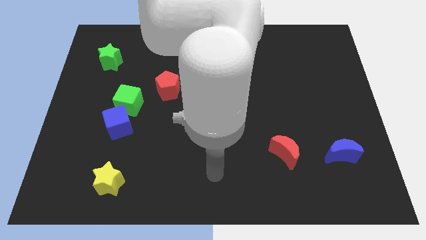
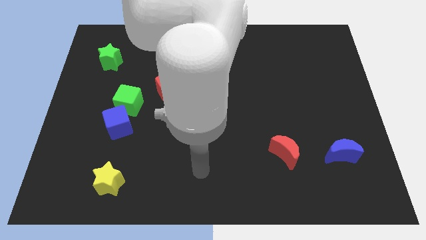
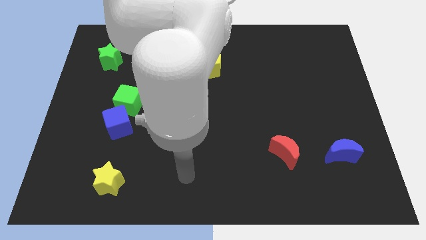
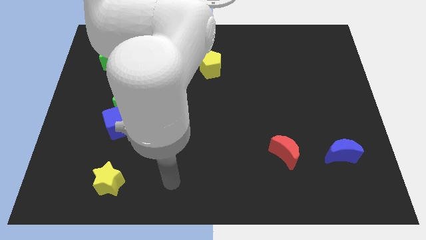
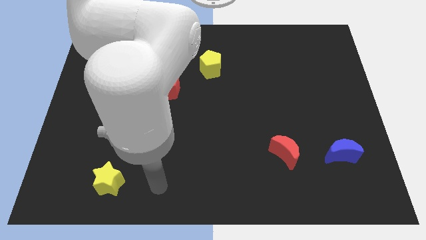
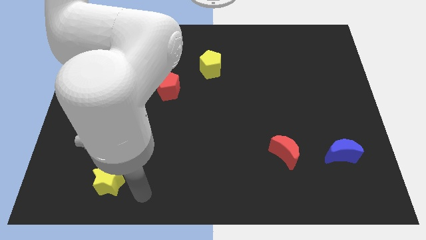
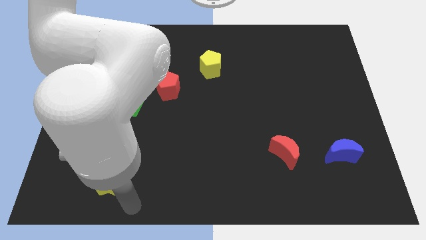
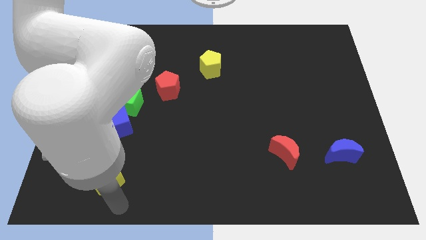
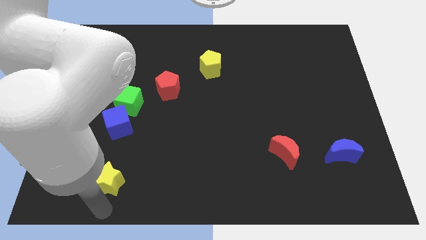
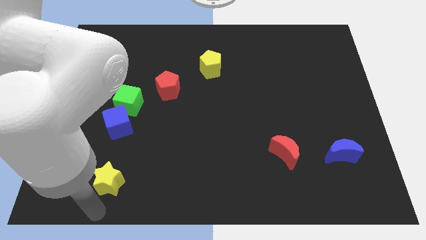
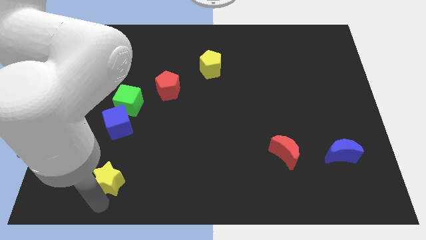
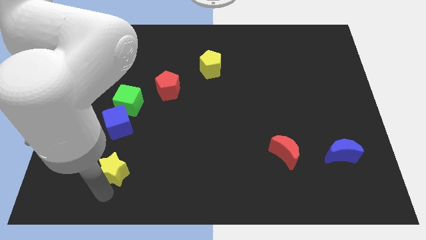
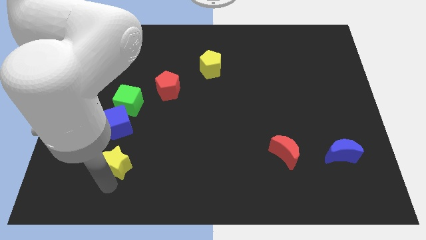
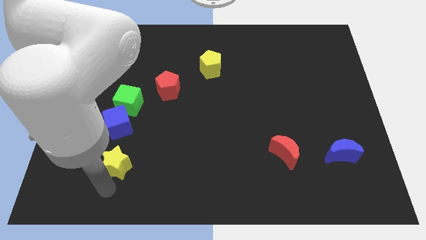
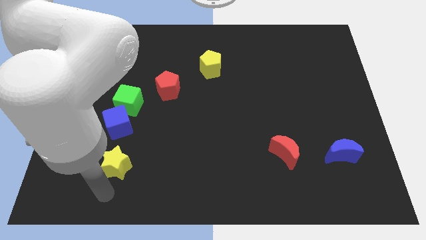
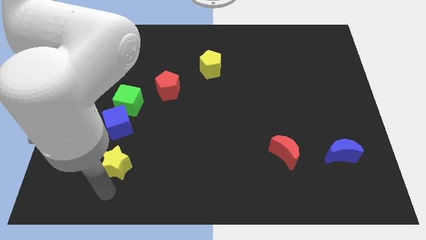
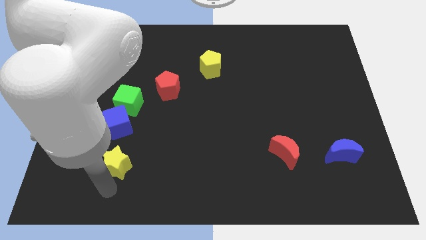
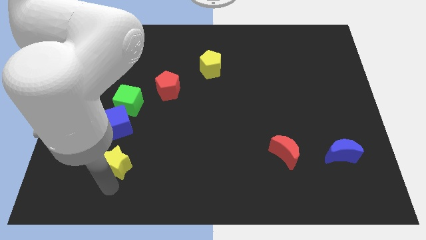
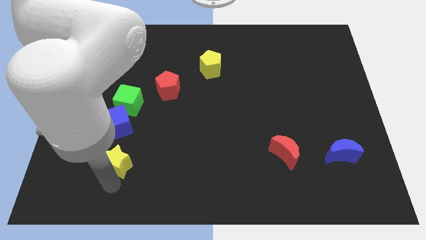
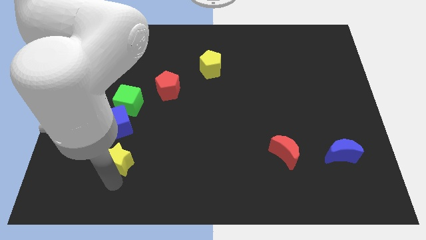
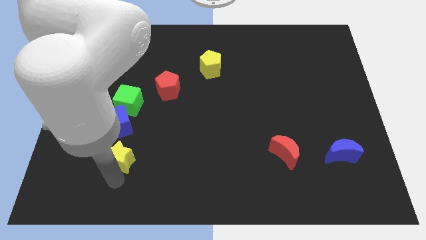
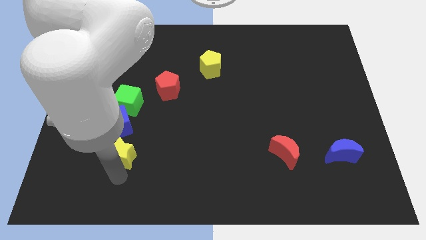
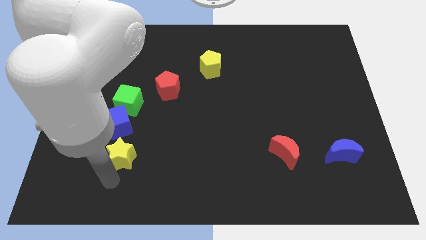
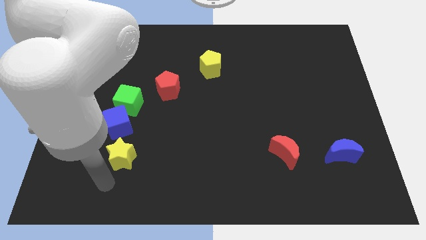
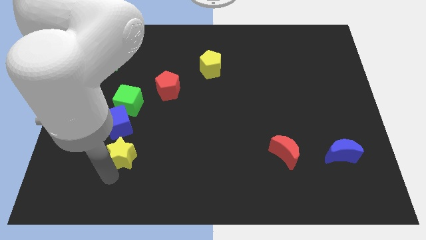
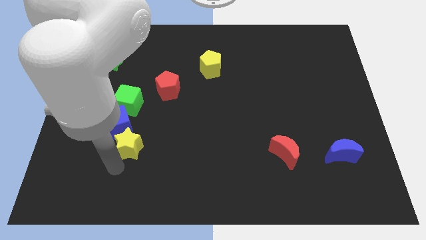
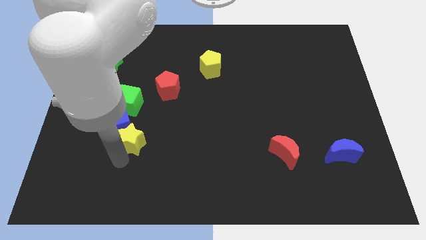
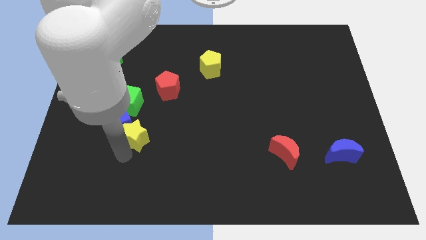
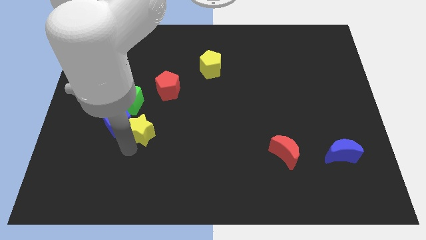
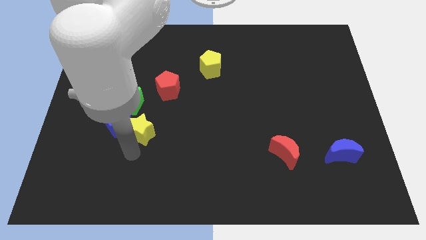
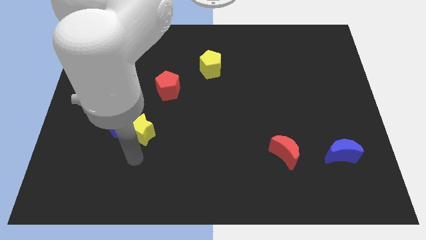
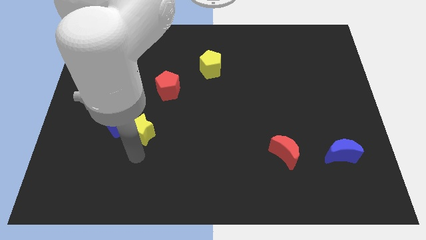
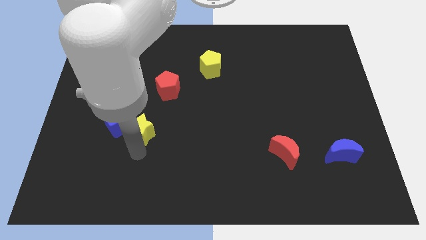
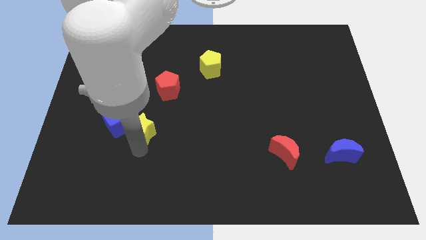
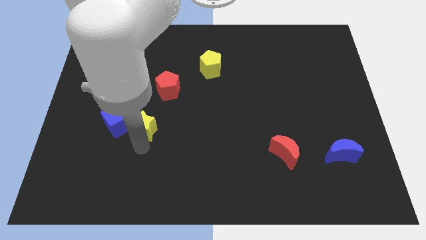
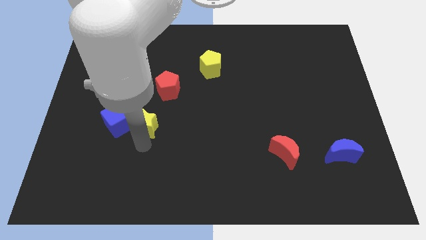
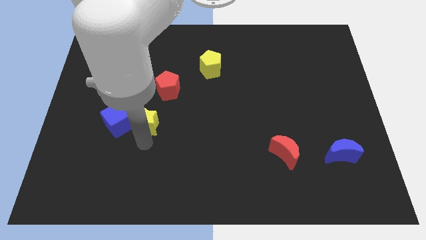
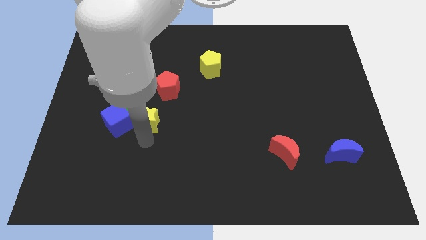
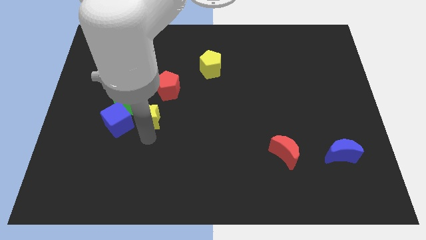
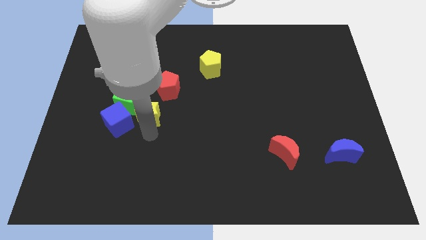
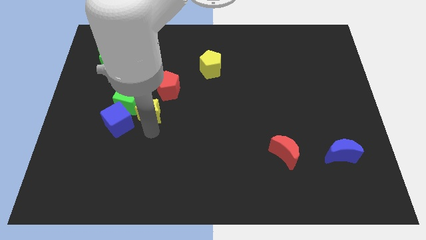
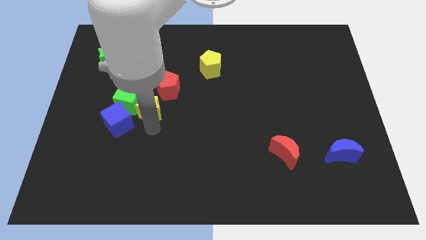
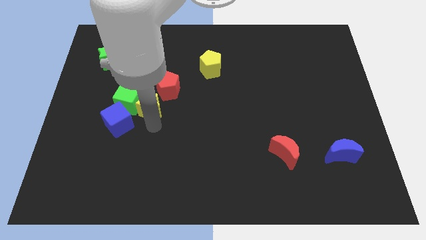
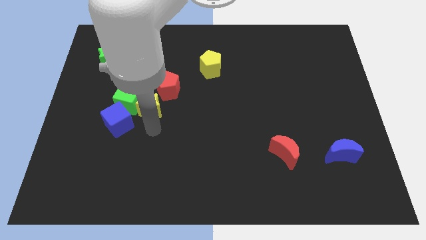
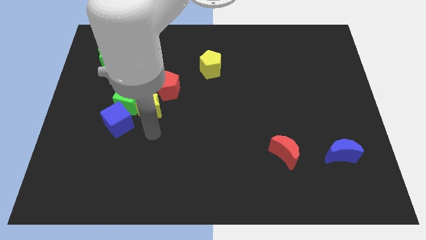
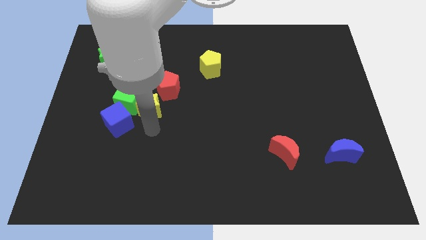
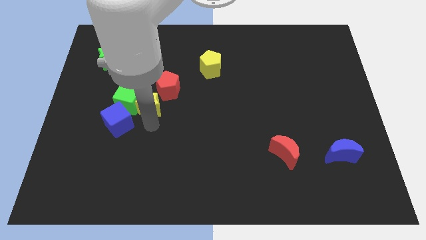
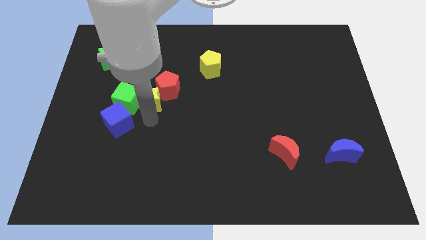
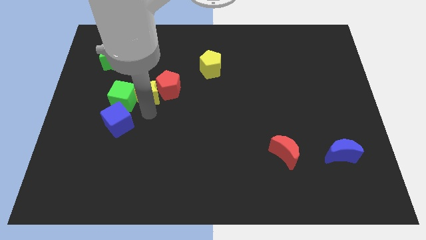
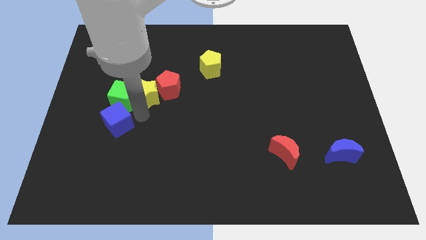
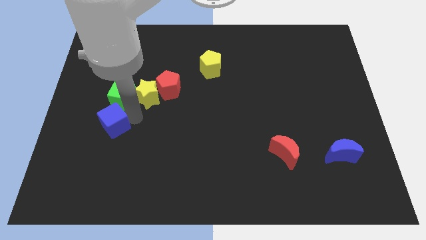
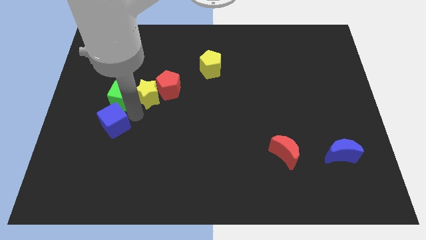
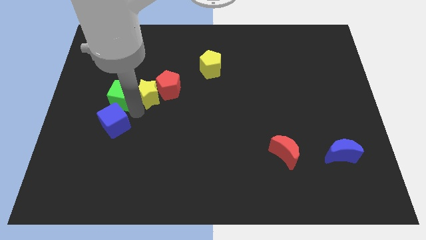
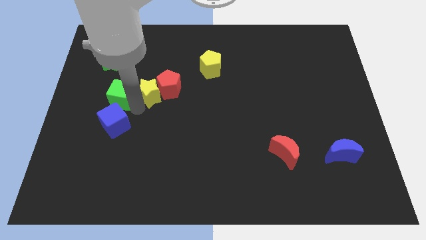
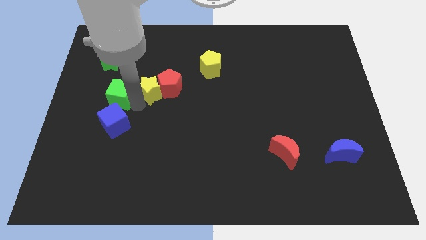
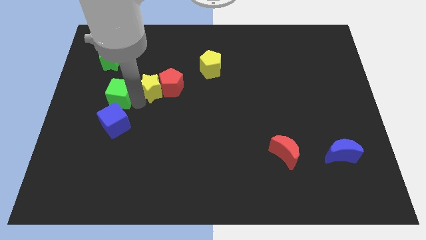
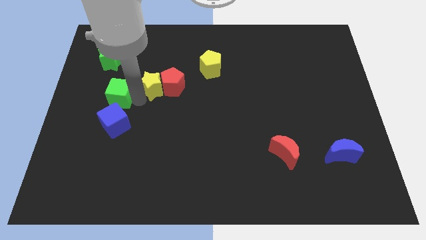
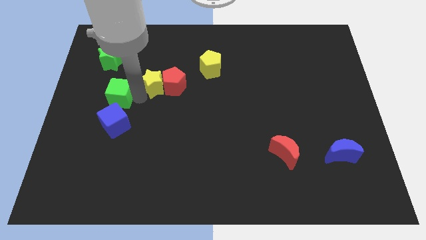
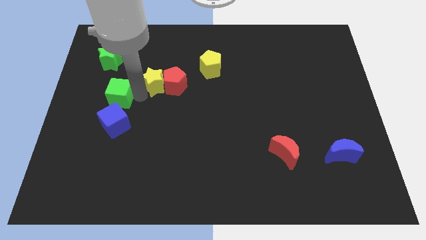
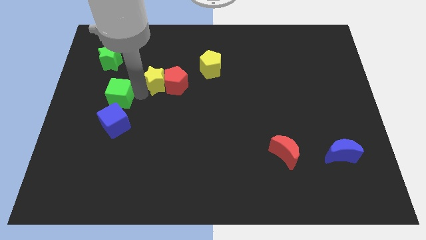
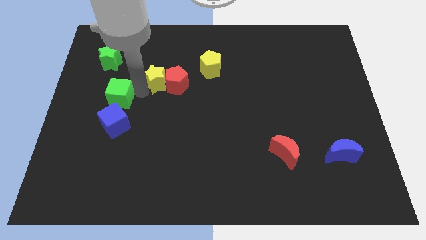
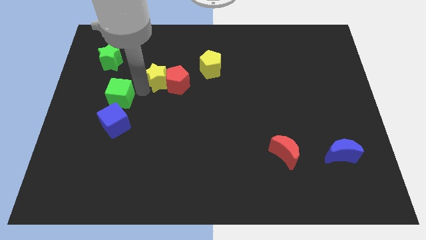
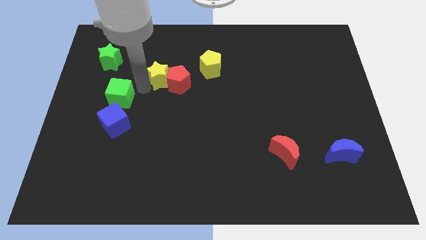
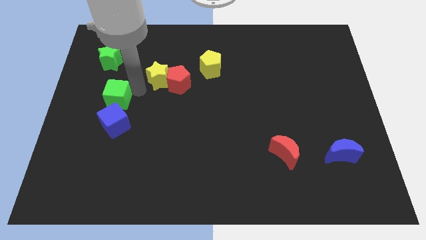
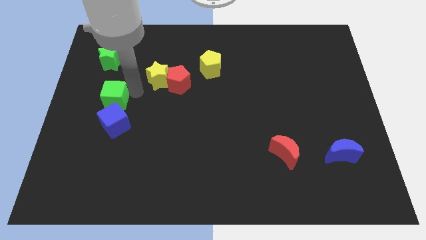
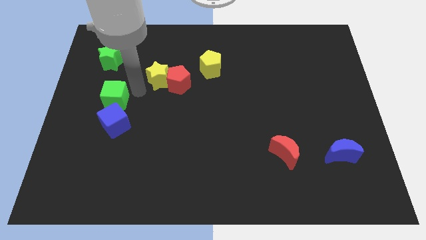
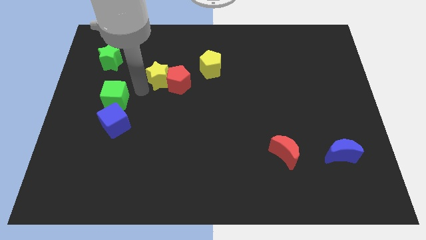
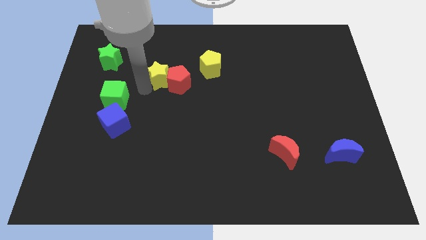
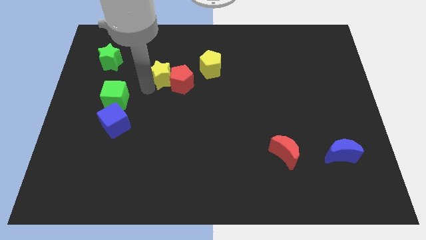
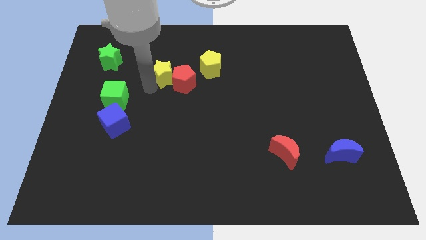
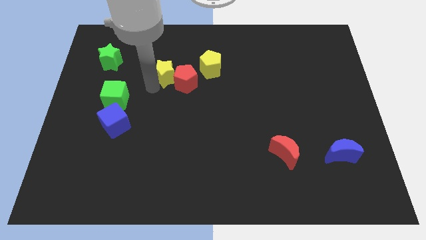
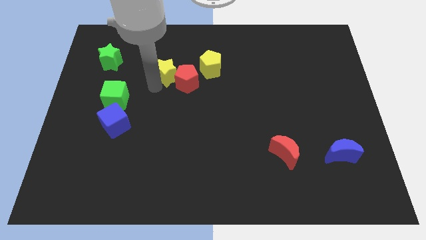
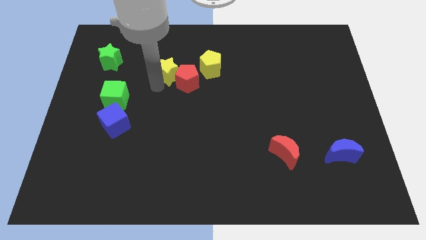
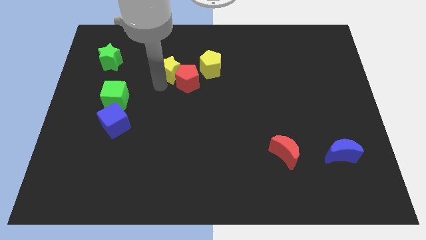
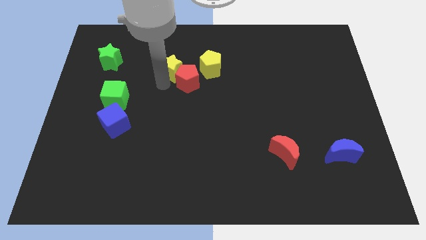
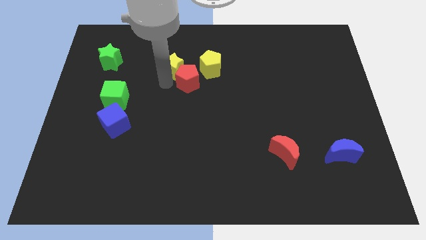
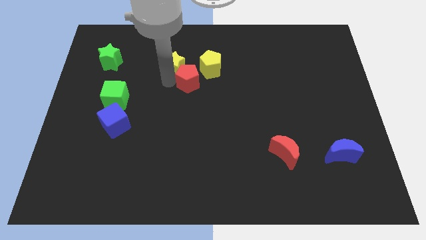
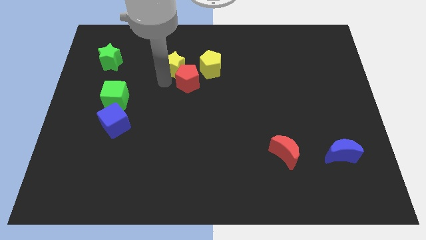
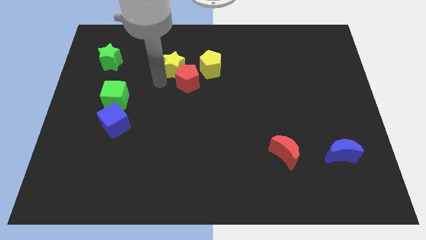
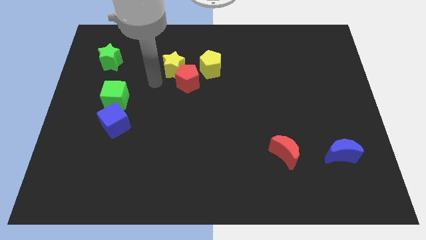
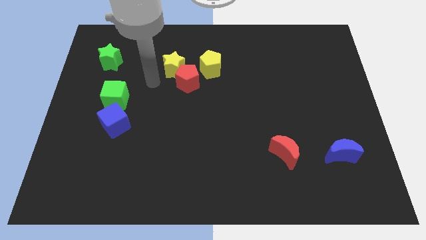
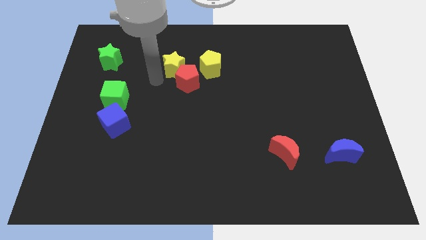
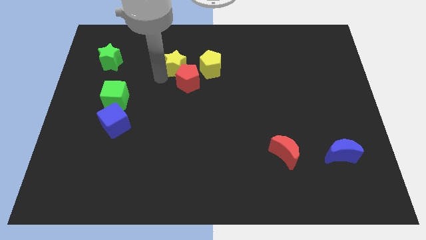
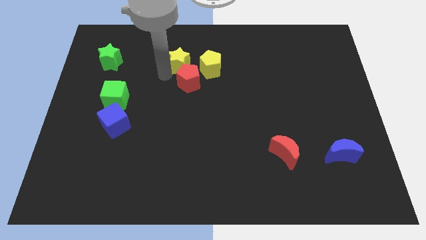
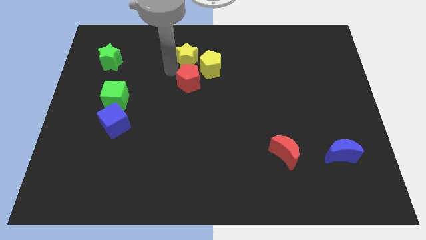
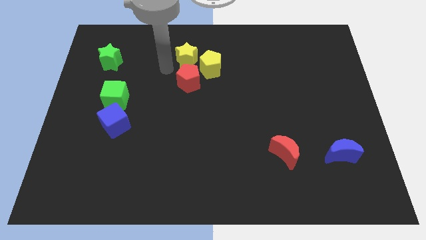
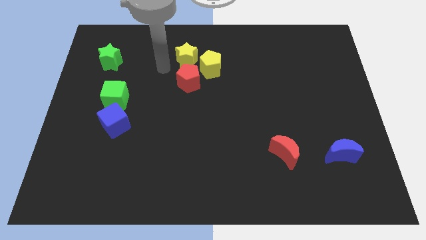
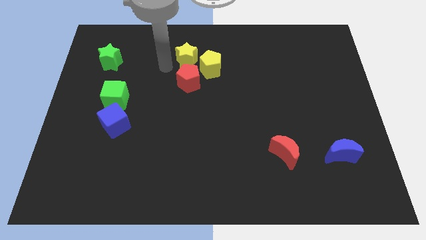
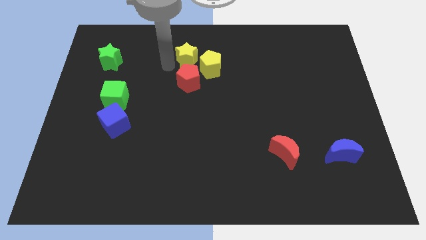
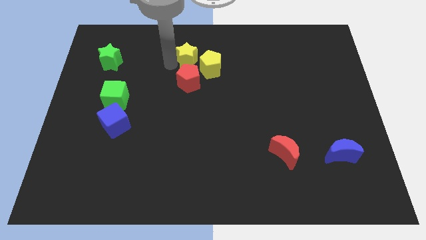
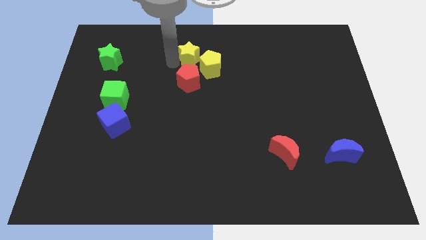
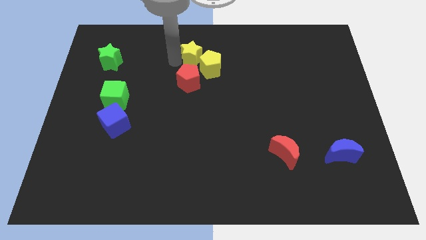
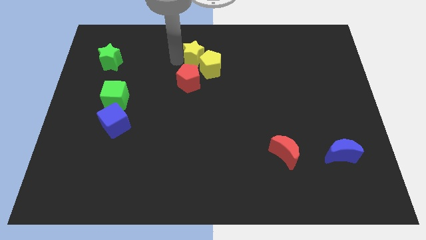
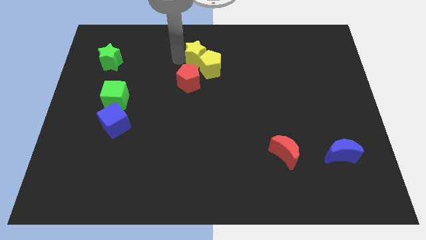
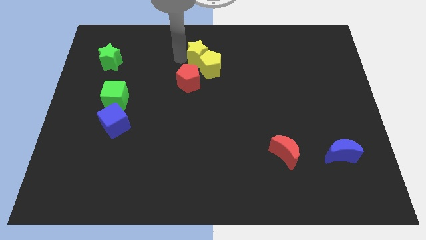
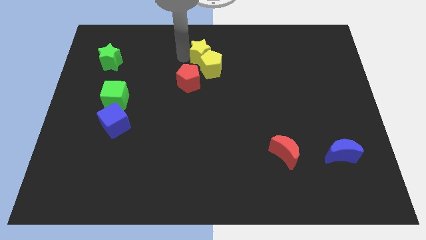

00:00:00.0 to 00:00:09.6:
move the yellow star to the towards your base
